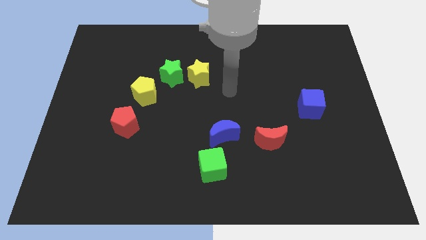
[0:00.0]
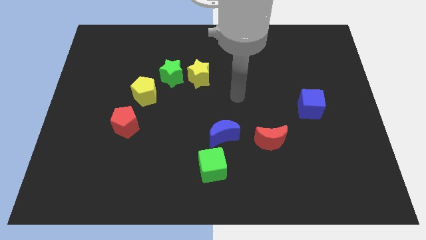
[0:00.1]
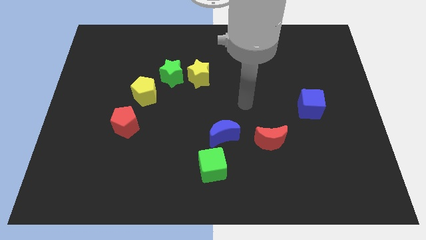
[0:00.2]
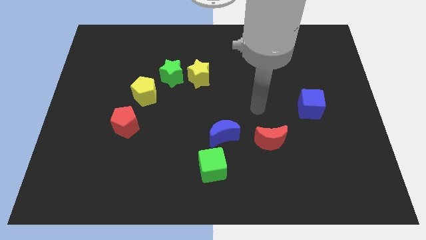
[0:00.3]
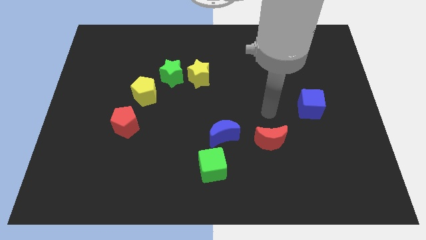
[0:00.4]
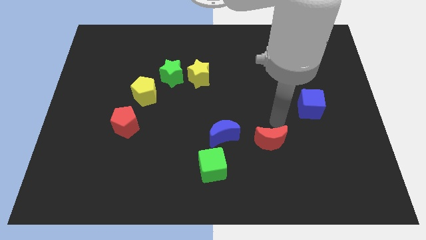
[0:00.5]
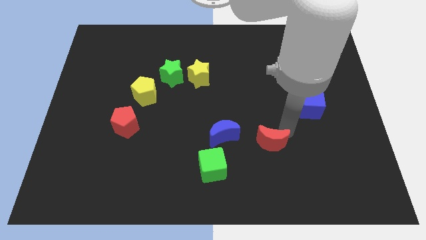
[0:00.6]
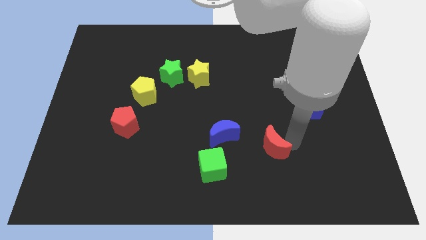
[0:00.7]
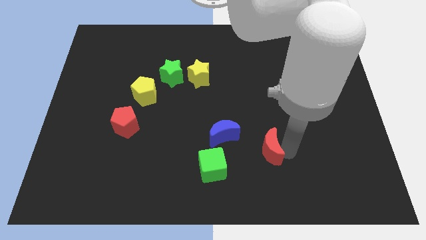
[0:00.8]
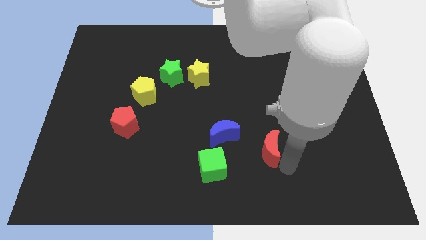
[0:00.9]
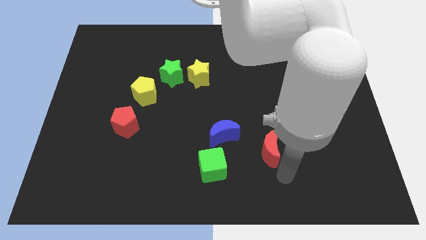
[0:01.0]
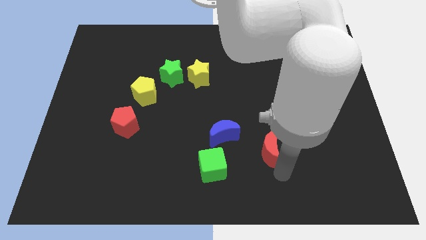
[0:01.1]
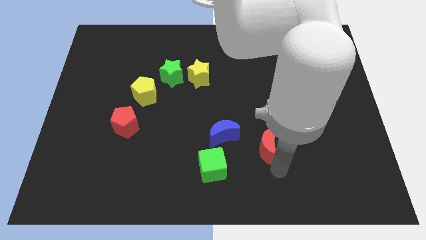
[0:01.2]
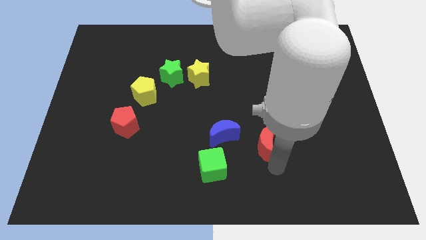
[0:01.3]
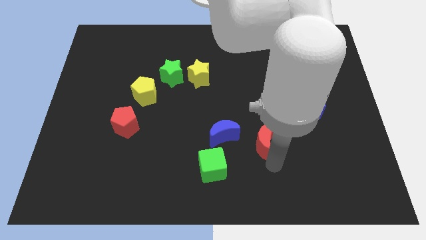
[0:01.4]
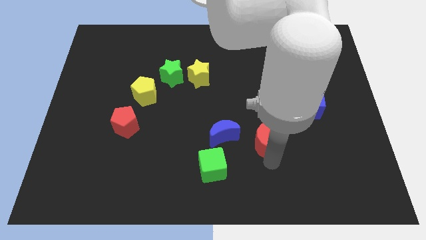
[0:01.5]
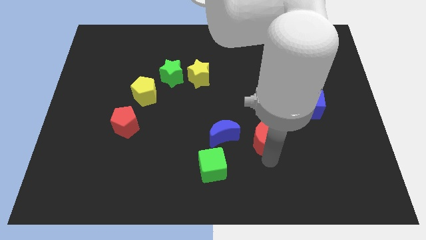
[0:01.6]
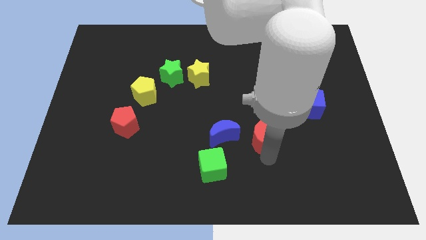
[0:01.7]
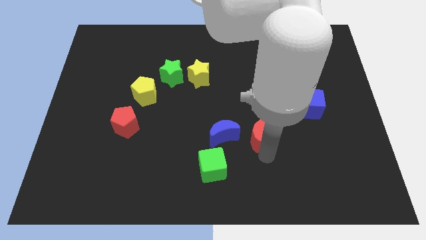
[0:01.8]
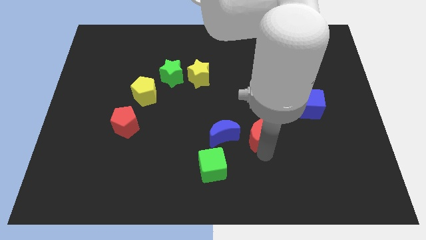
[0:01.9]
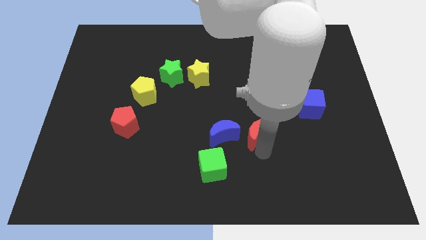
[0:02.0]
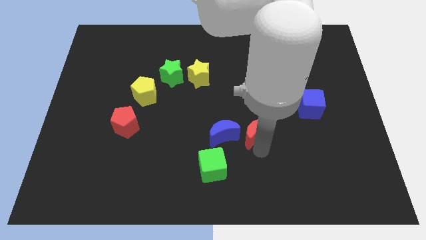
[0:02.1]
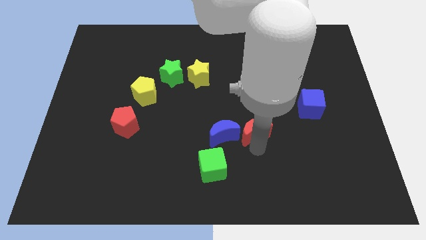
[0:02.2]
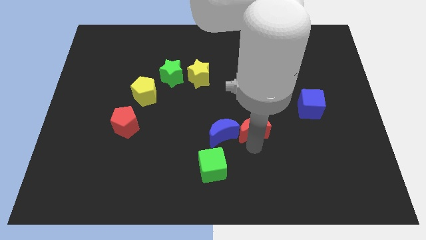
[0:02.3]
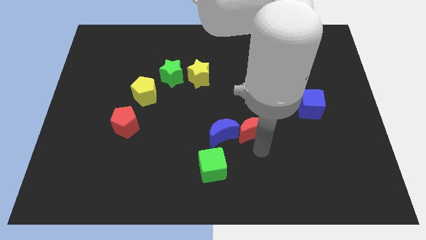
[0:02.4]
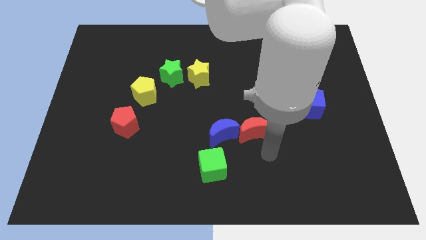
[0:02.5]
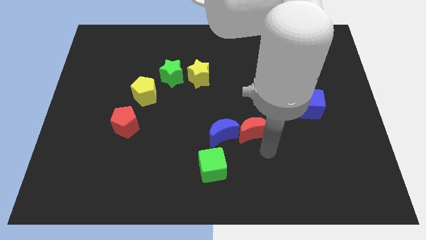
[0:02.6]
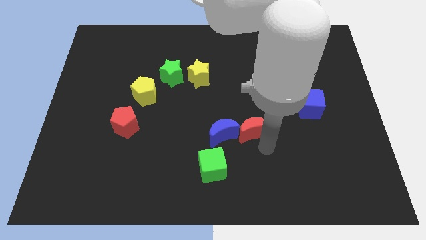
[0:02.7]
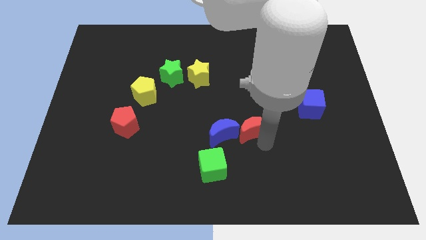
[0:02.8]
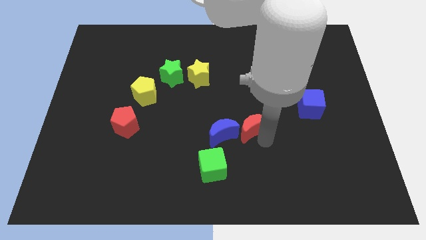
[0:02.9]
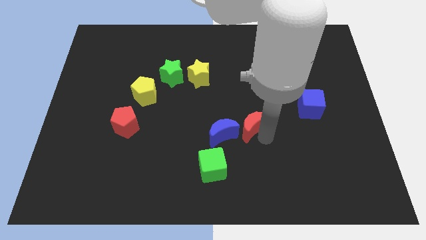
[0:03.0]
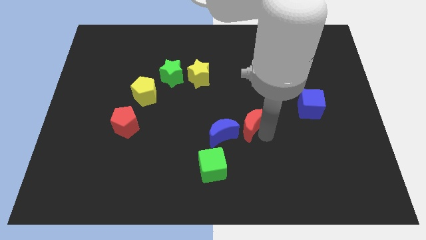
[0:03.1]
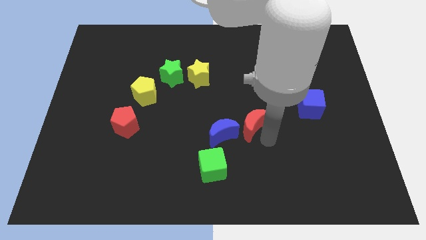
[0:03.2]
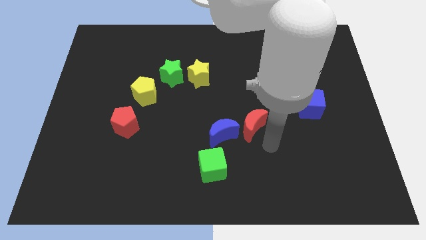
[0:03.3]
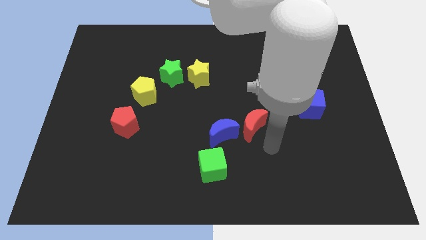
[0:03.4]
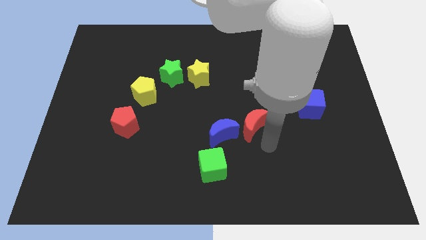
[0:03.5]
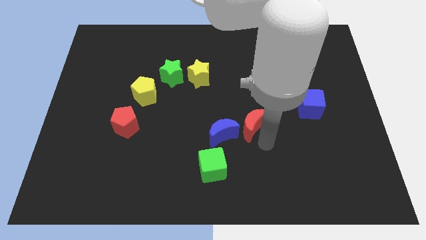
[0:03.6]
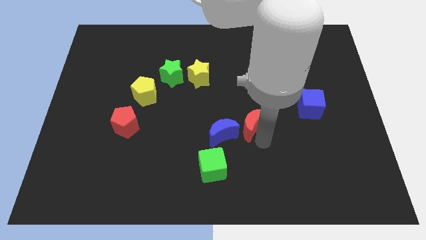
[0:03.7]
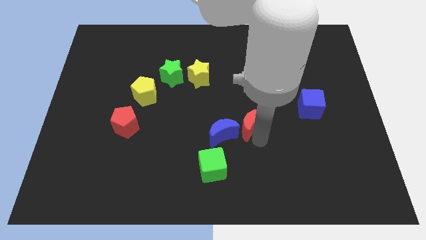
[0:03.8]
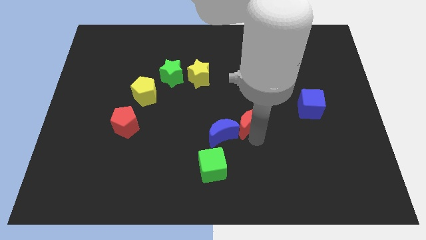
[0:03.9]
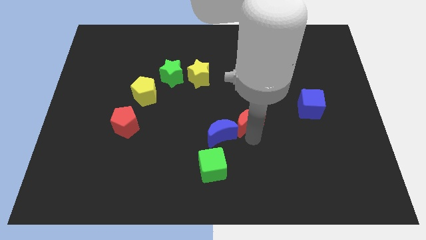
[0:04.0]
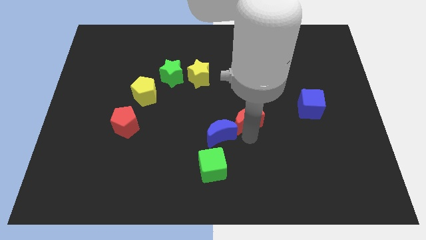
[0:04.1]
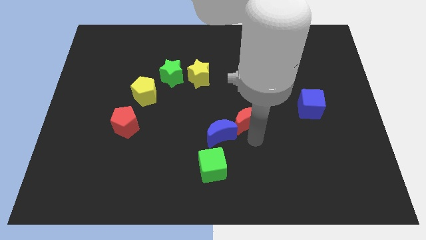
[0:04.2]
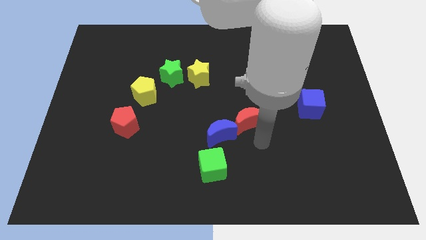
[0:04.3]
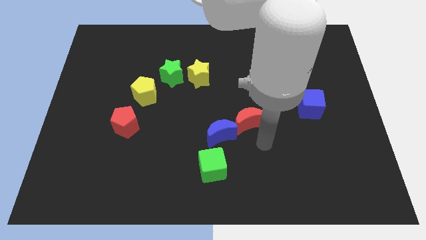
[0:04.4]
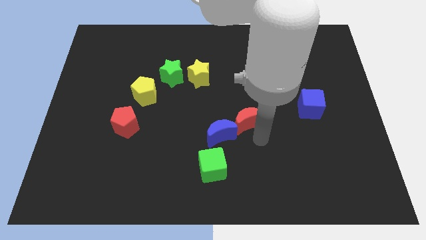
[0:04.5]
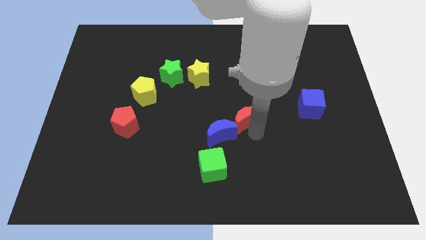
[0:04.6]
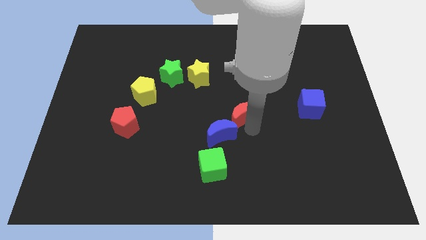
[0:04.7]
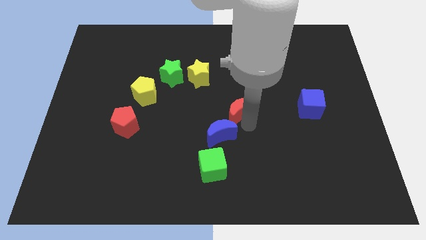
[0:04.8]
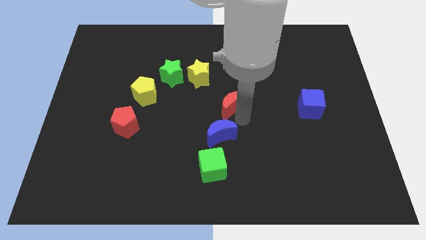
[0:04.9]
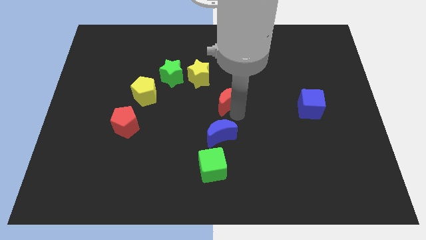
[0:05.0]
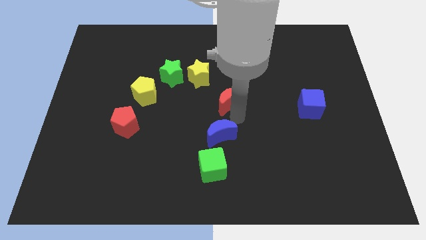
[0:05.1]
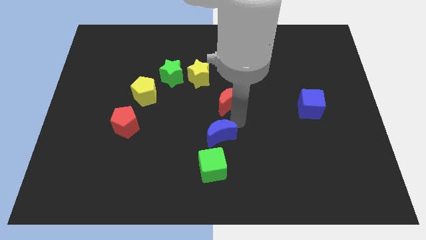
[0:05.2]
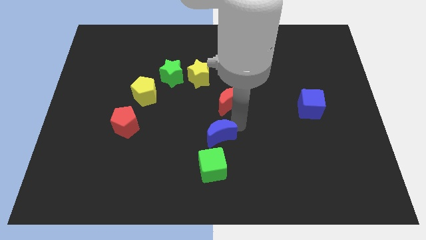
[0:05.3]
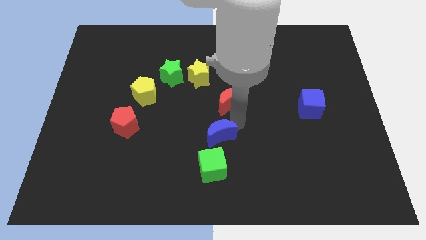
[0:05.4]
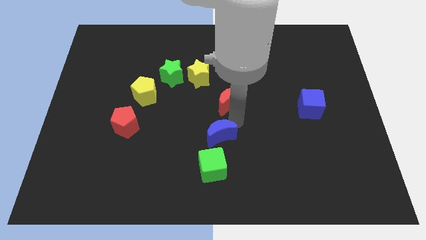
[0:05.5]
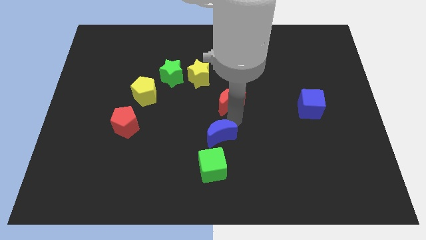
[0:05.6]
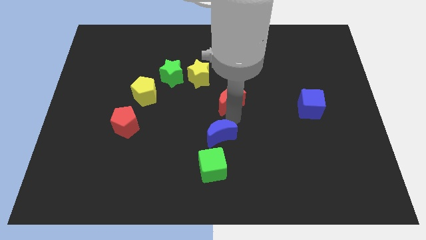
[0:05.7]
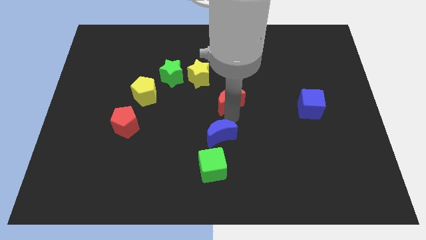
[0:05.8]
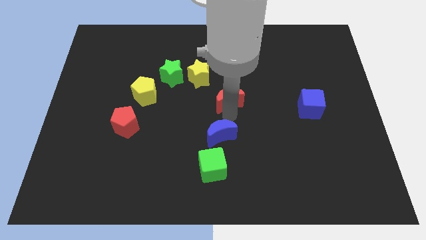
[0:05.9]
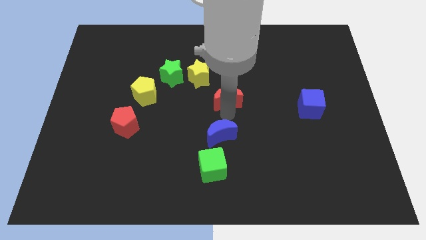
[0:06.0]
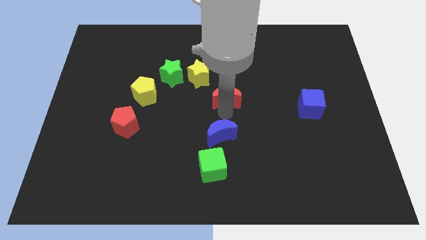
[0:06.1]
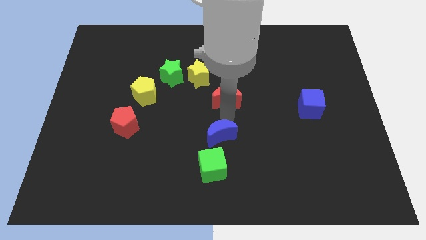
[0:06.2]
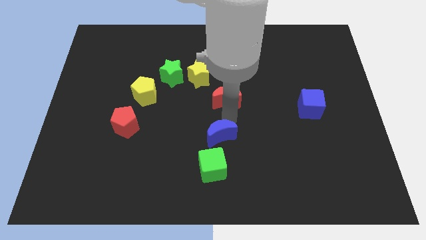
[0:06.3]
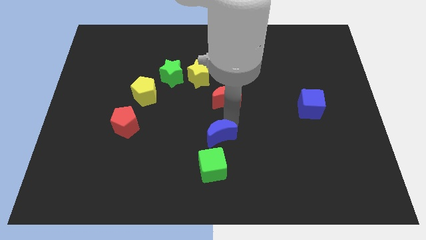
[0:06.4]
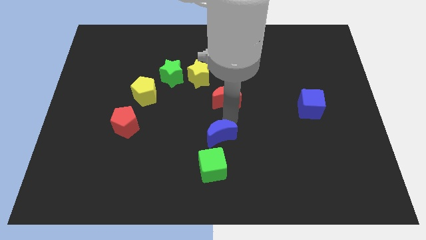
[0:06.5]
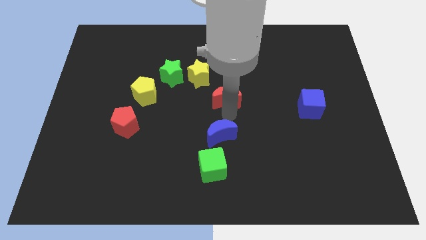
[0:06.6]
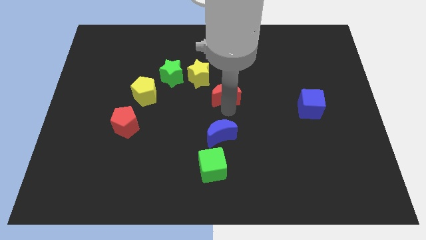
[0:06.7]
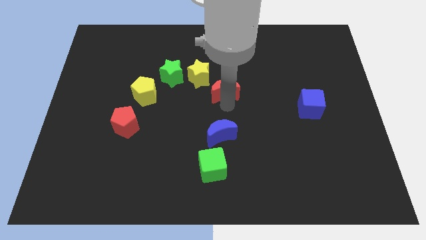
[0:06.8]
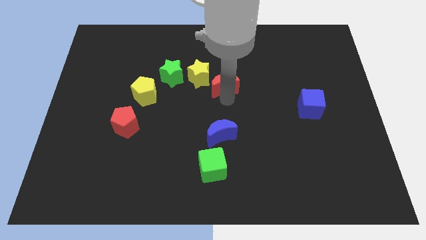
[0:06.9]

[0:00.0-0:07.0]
put the red moon to the right of the green star
